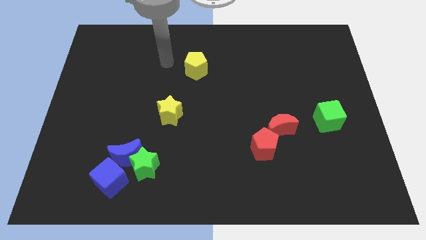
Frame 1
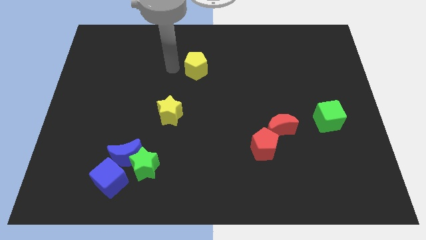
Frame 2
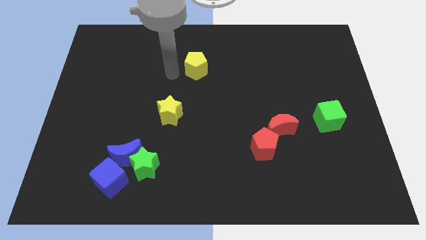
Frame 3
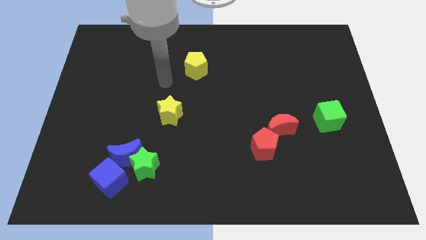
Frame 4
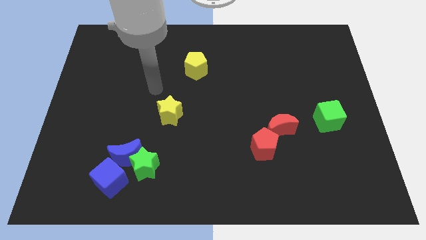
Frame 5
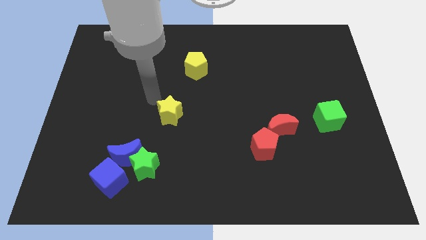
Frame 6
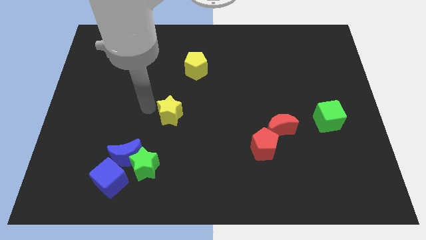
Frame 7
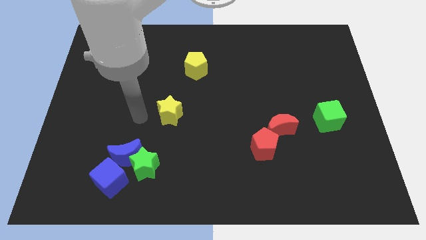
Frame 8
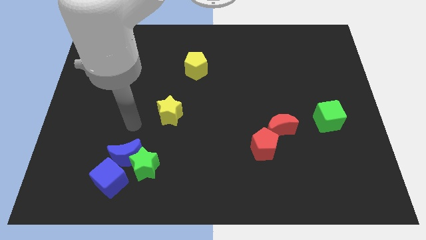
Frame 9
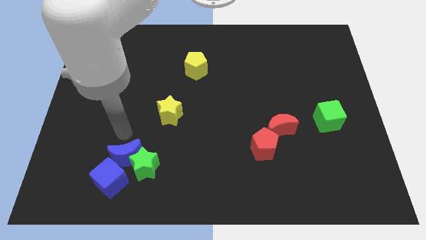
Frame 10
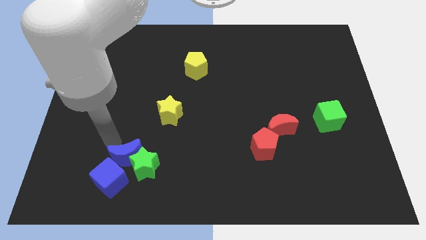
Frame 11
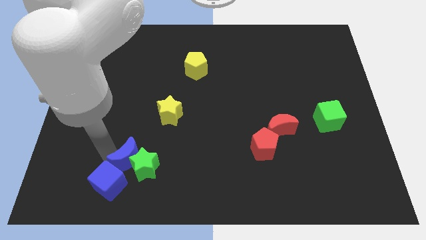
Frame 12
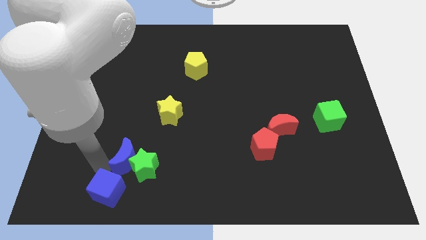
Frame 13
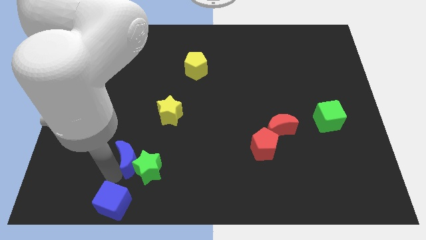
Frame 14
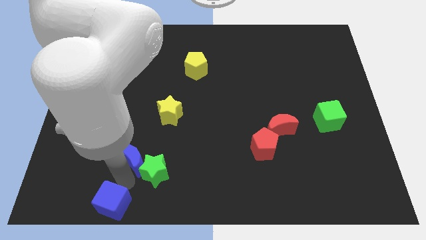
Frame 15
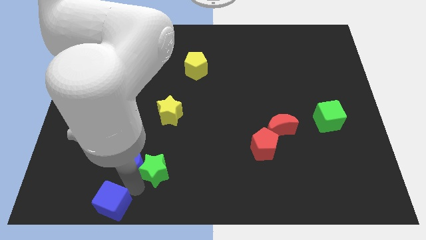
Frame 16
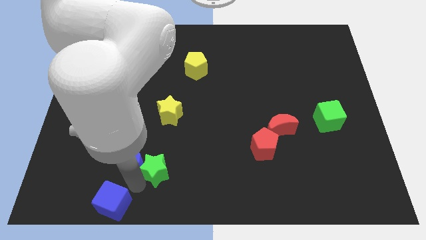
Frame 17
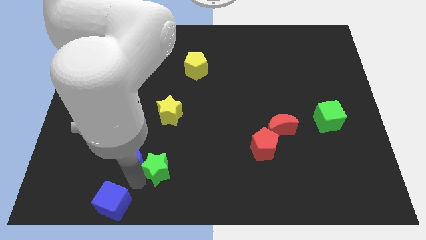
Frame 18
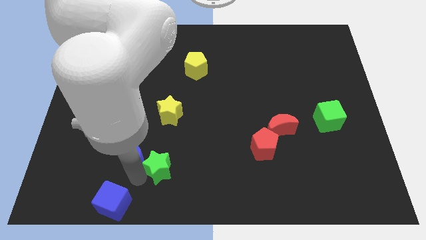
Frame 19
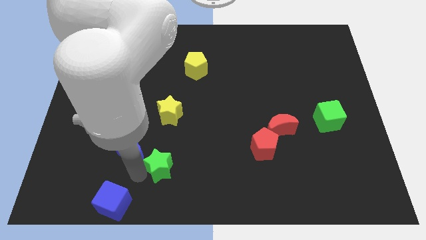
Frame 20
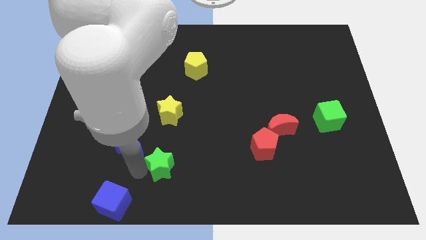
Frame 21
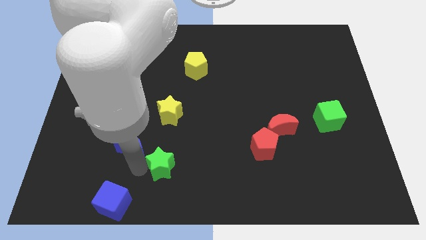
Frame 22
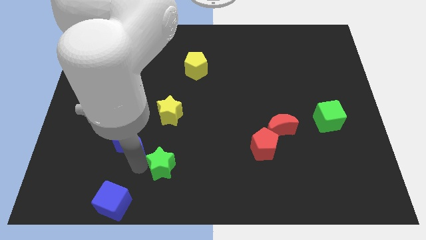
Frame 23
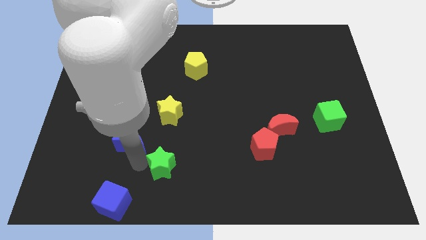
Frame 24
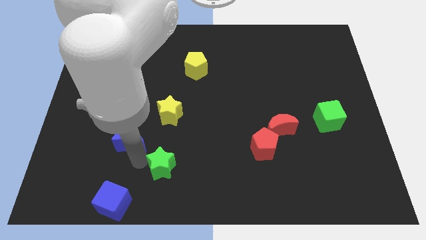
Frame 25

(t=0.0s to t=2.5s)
separate the blue moon from the green star and blue cube

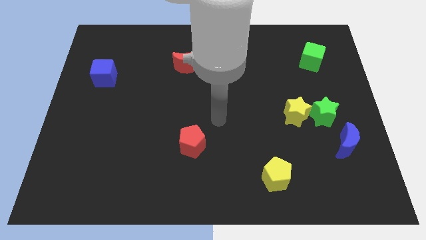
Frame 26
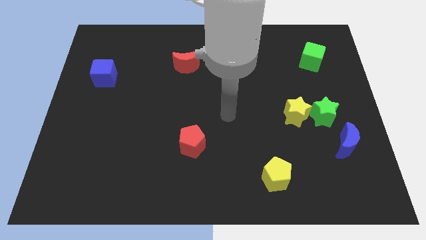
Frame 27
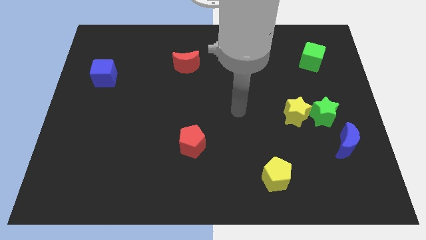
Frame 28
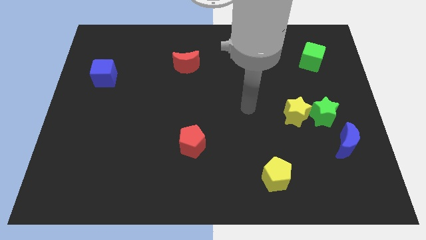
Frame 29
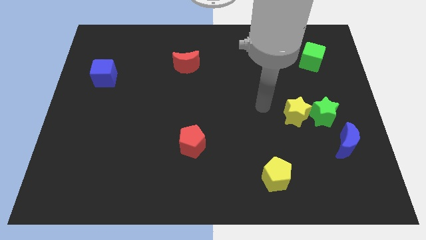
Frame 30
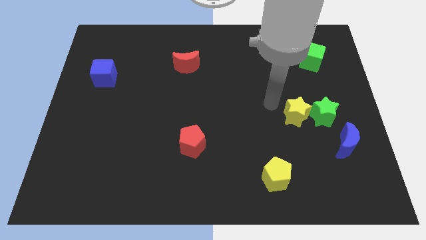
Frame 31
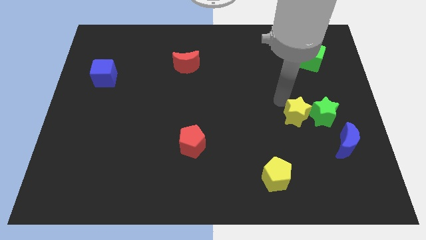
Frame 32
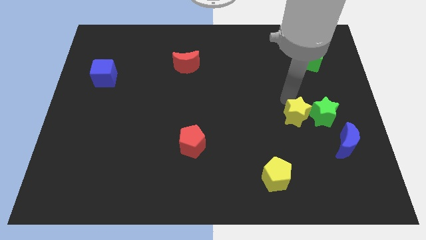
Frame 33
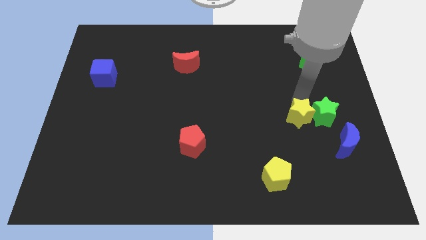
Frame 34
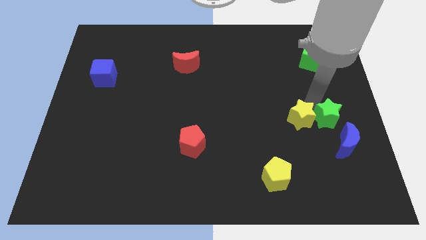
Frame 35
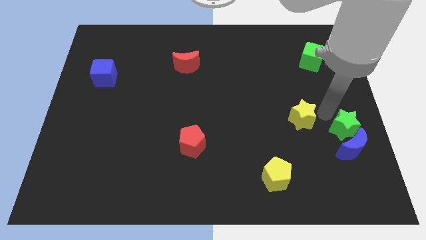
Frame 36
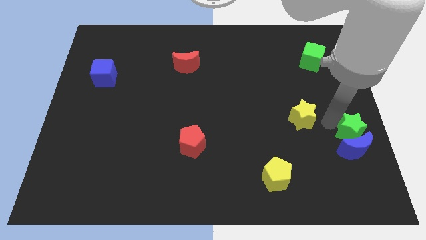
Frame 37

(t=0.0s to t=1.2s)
move the yellow star away from the green star

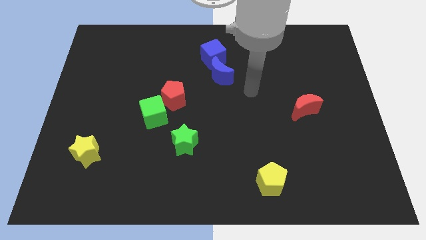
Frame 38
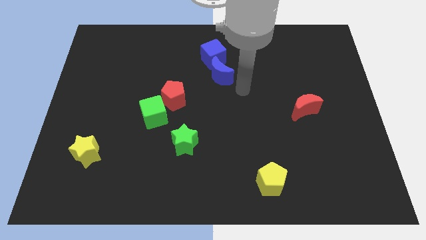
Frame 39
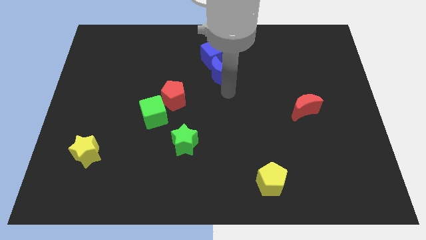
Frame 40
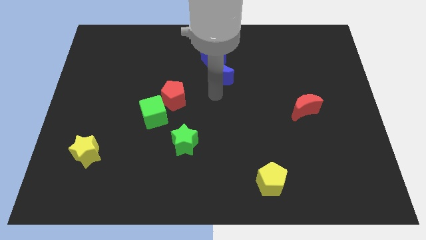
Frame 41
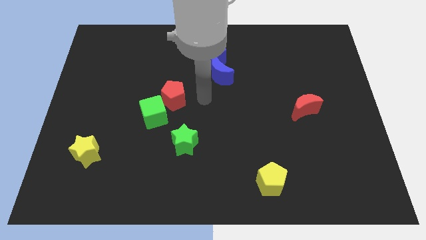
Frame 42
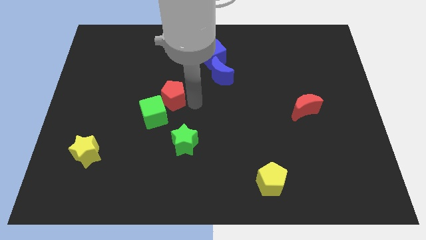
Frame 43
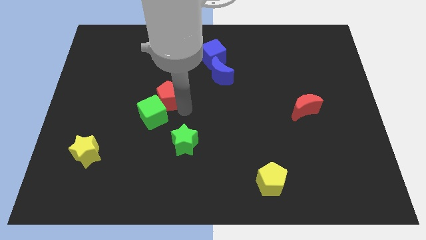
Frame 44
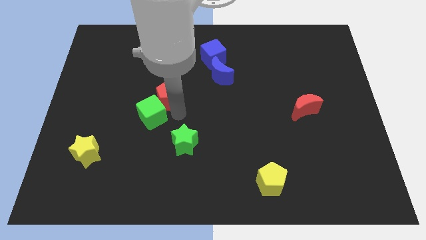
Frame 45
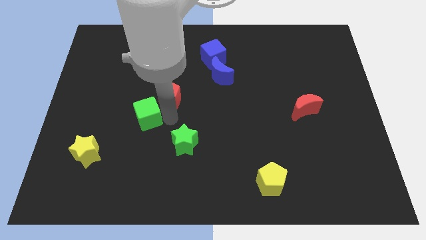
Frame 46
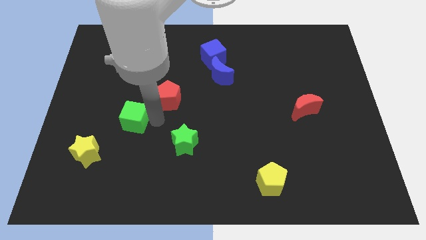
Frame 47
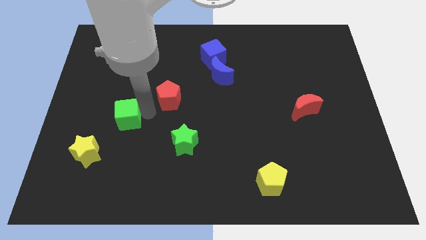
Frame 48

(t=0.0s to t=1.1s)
pull the red pentagon apart from the green cube

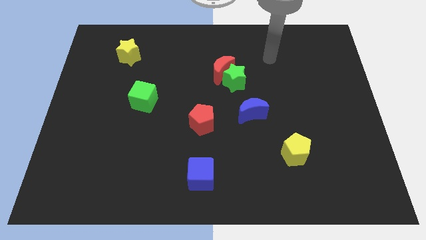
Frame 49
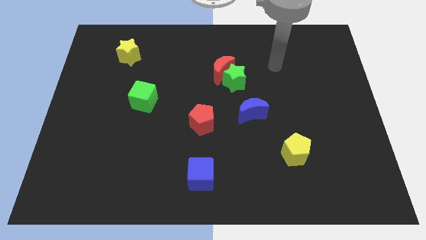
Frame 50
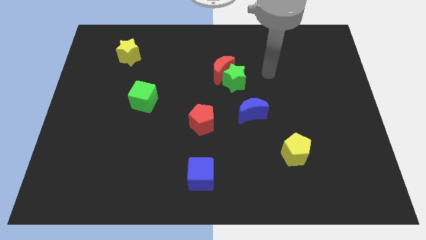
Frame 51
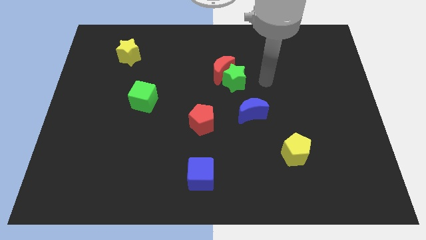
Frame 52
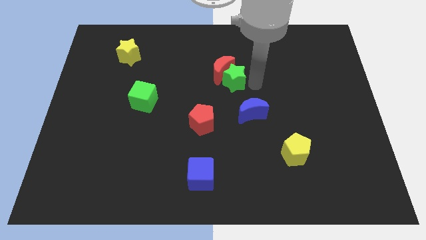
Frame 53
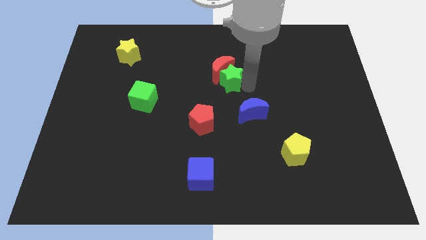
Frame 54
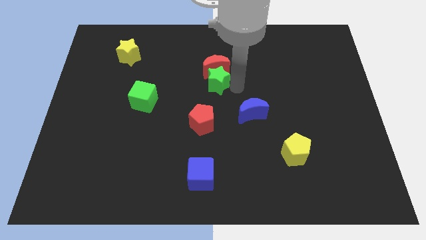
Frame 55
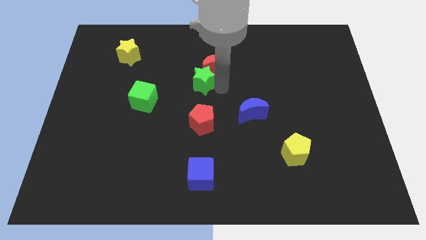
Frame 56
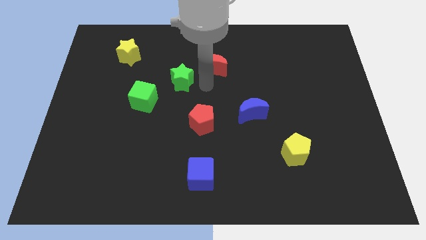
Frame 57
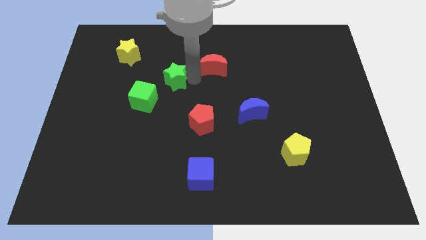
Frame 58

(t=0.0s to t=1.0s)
separate the red moon from the green star

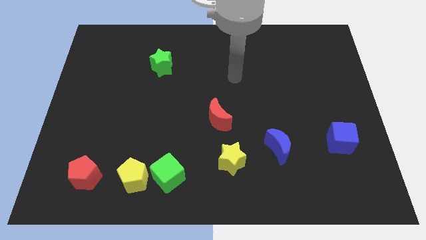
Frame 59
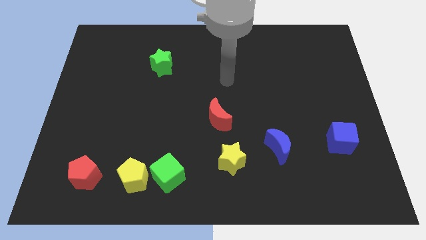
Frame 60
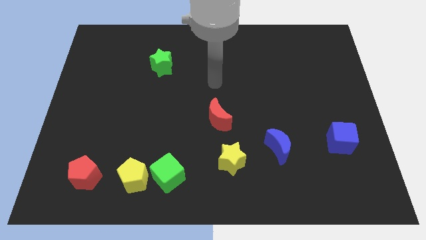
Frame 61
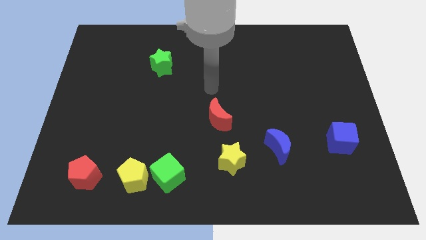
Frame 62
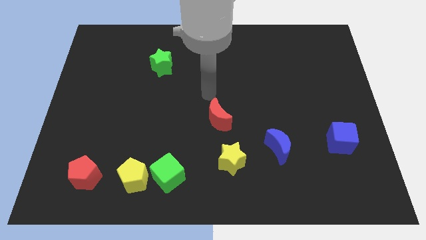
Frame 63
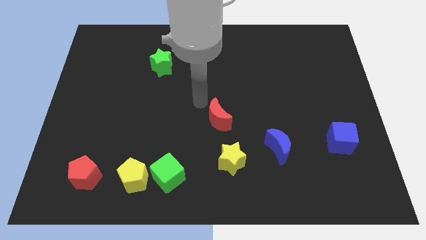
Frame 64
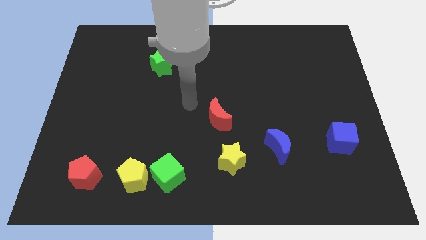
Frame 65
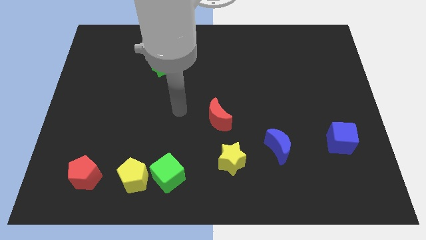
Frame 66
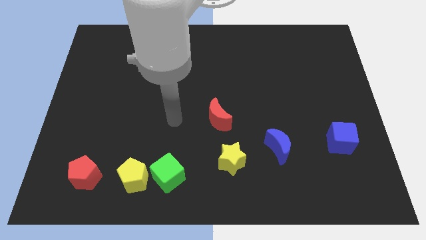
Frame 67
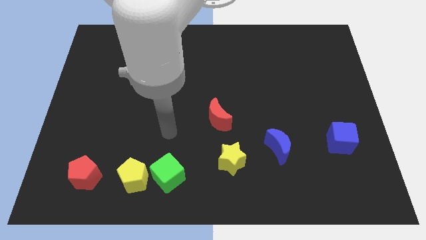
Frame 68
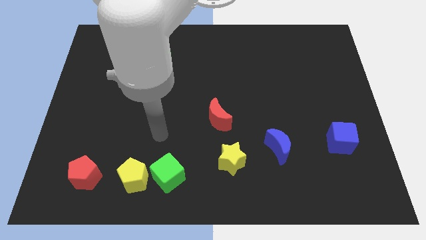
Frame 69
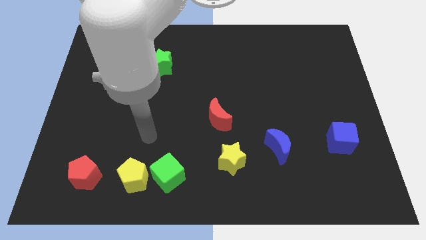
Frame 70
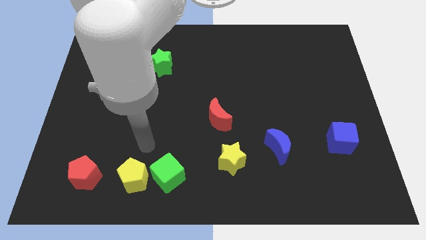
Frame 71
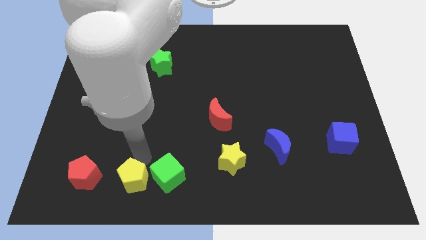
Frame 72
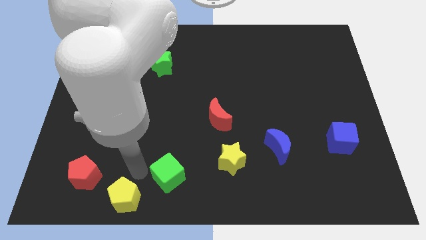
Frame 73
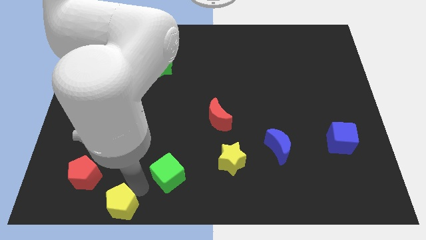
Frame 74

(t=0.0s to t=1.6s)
move the green cube away from the yellow pentagon

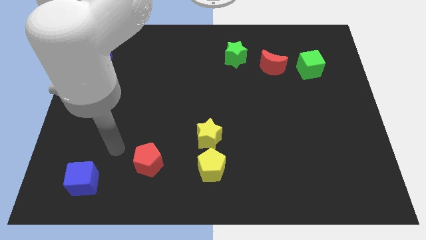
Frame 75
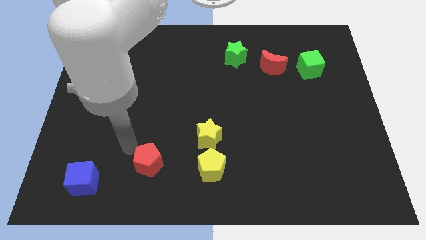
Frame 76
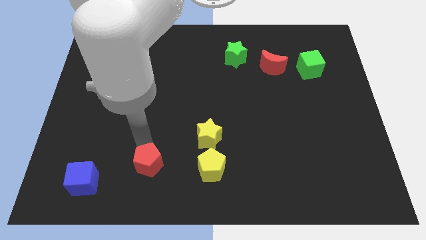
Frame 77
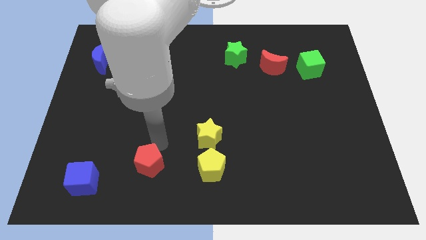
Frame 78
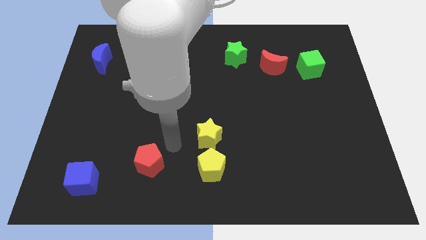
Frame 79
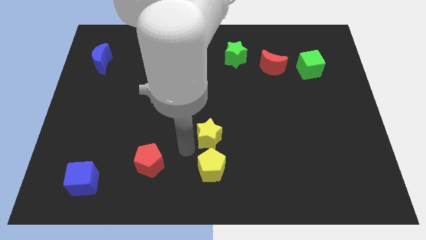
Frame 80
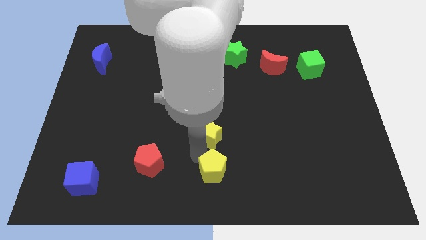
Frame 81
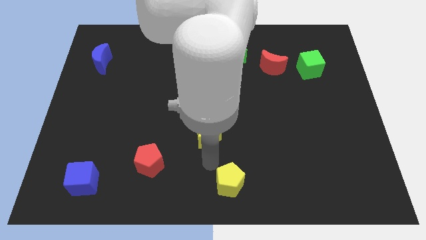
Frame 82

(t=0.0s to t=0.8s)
move the yellow star away from the yellow pentagon

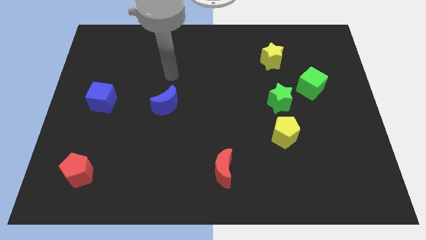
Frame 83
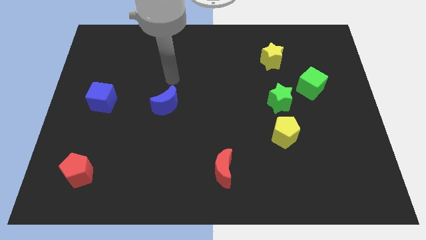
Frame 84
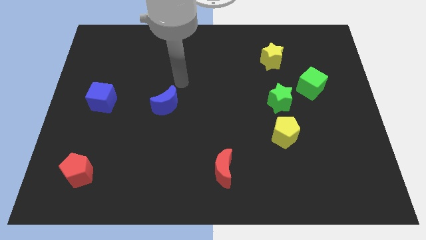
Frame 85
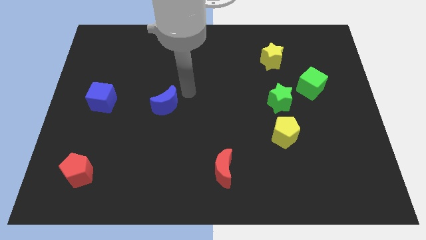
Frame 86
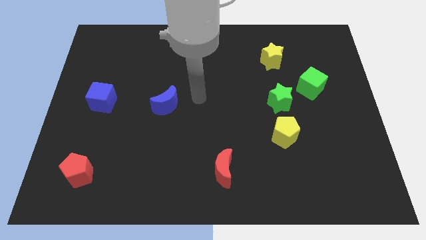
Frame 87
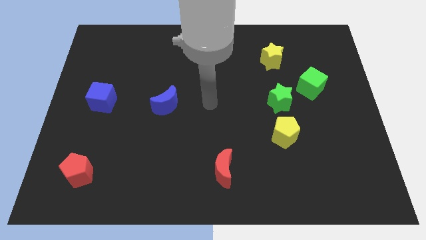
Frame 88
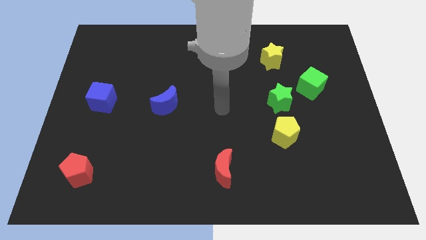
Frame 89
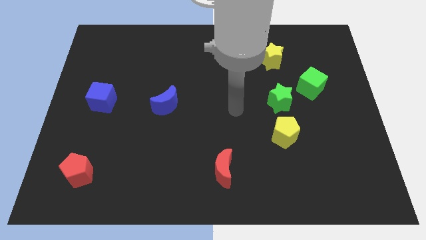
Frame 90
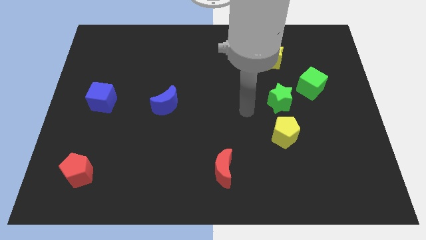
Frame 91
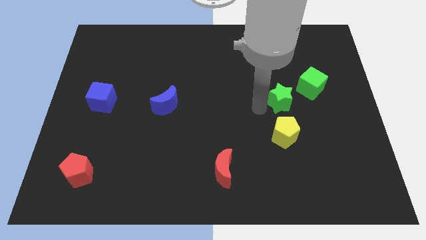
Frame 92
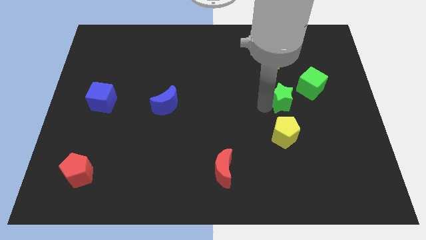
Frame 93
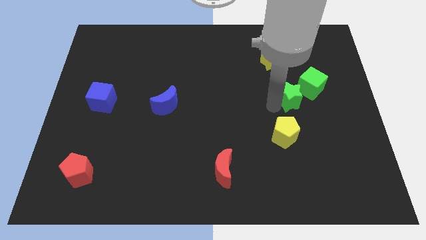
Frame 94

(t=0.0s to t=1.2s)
separate the yellow pentagon from the green star
